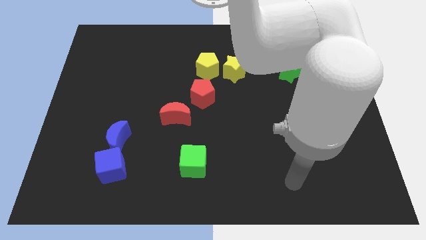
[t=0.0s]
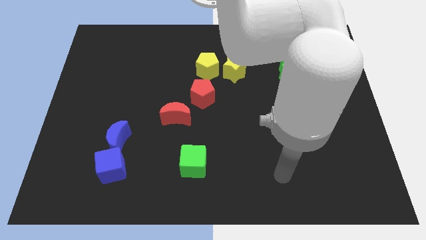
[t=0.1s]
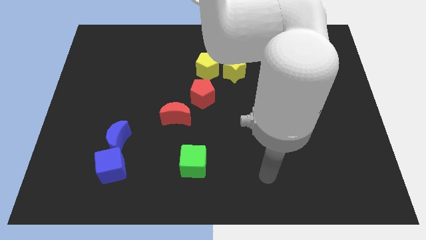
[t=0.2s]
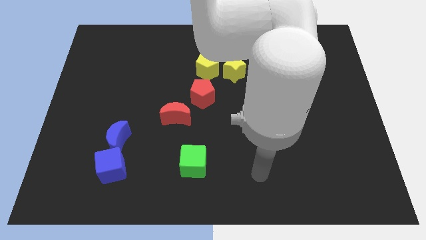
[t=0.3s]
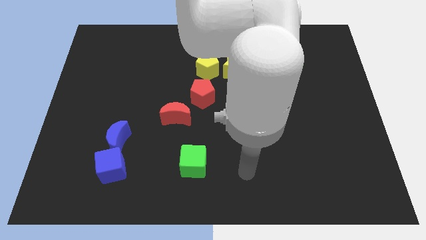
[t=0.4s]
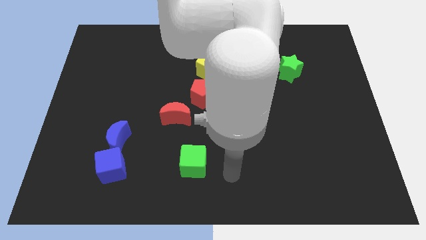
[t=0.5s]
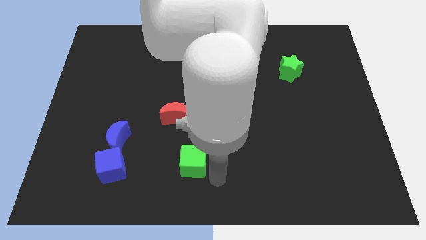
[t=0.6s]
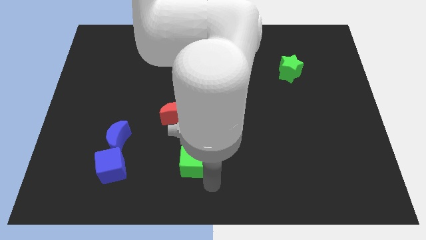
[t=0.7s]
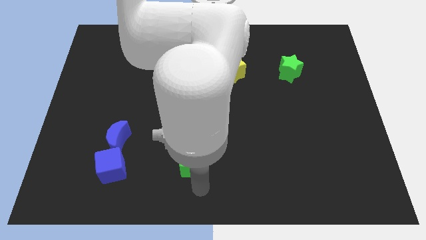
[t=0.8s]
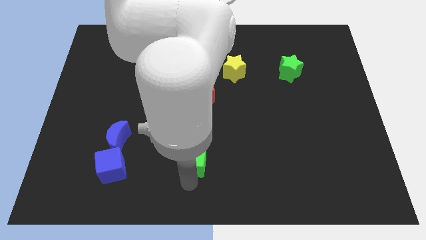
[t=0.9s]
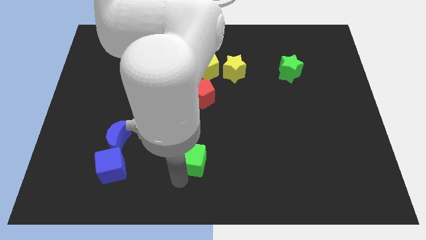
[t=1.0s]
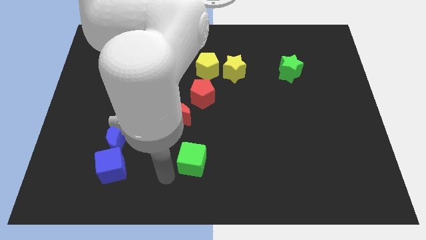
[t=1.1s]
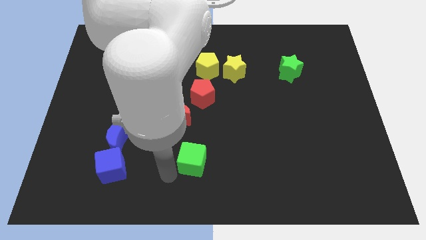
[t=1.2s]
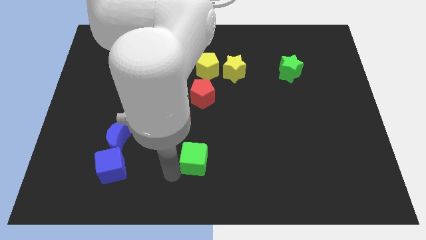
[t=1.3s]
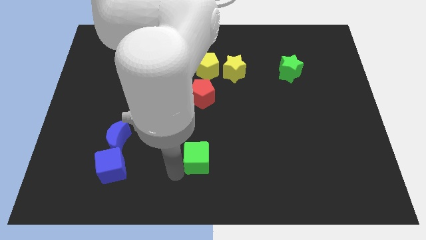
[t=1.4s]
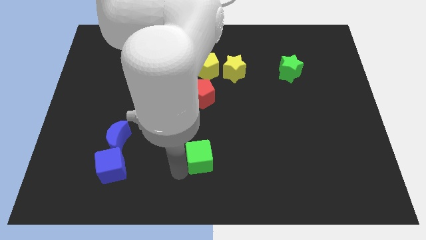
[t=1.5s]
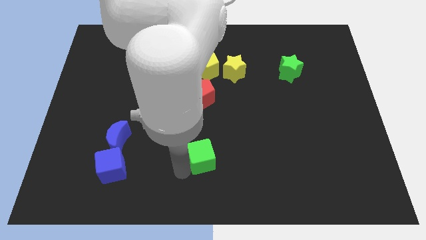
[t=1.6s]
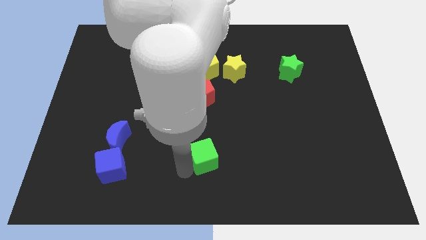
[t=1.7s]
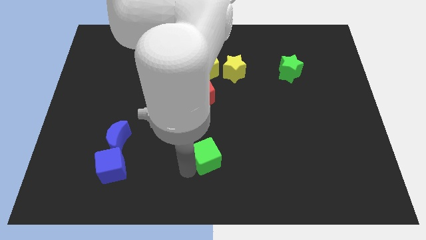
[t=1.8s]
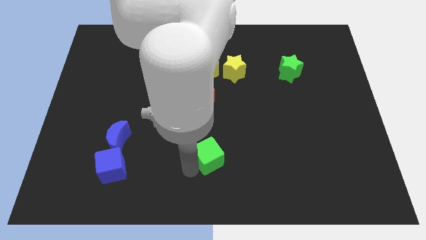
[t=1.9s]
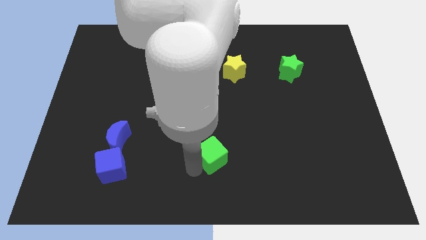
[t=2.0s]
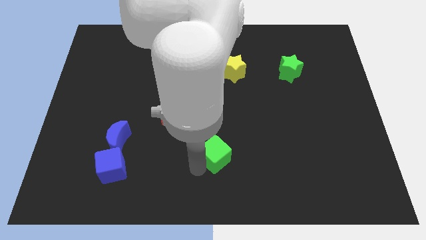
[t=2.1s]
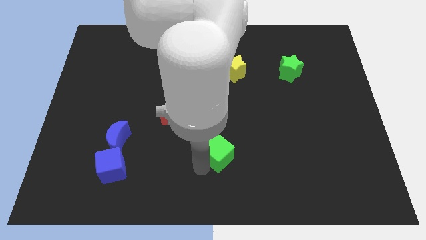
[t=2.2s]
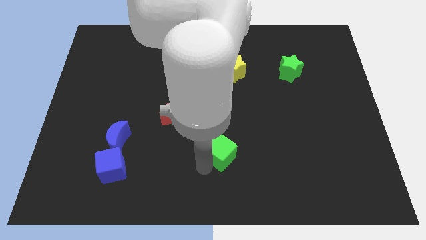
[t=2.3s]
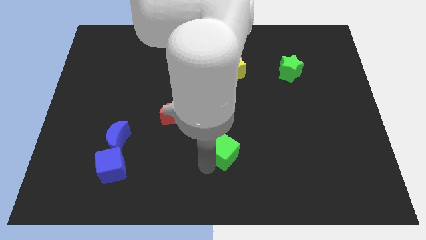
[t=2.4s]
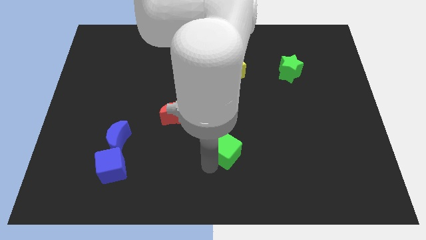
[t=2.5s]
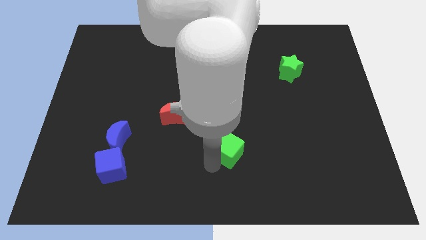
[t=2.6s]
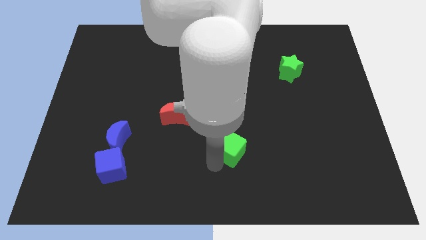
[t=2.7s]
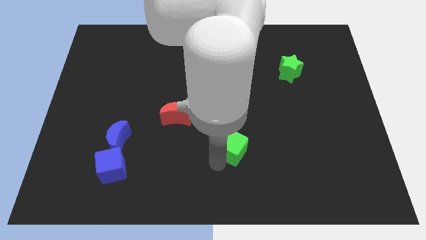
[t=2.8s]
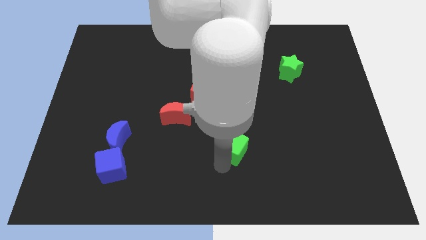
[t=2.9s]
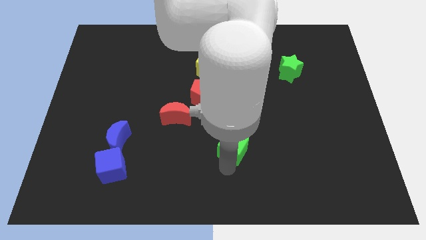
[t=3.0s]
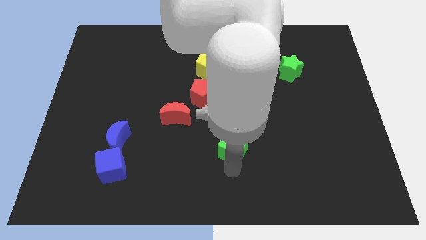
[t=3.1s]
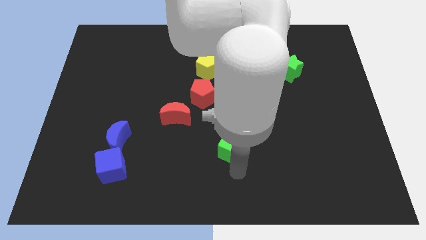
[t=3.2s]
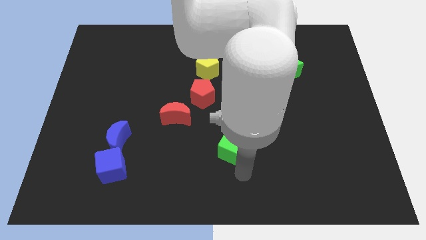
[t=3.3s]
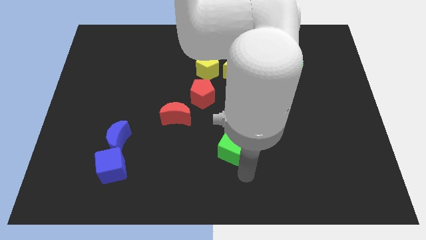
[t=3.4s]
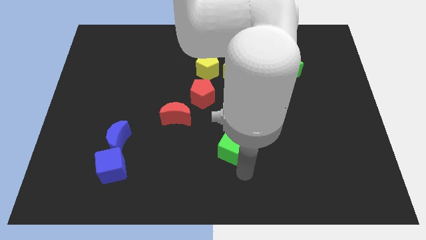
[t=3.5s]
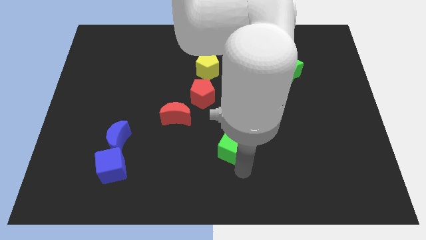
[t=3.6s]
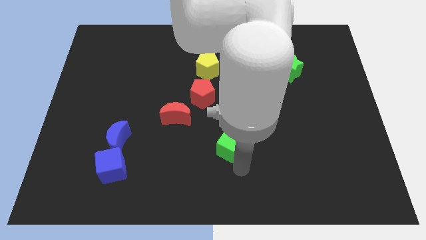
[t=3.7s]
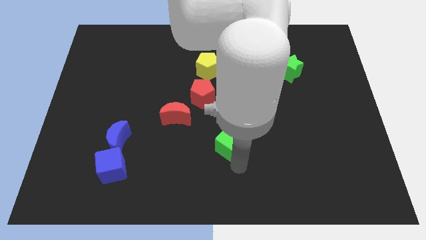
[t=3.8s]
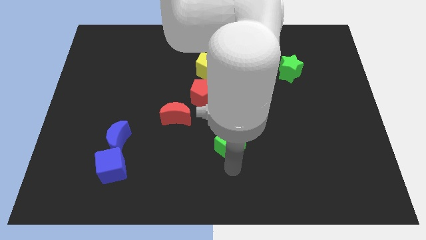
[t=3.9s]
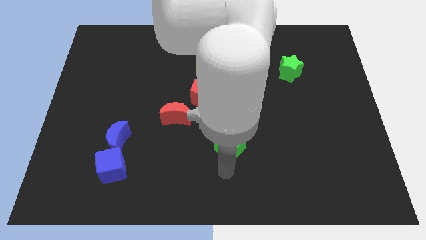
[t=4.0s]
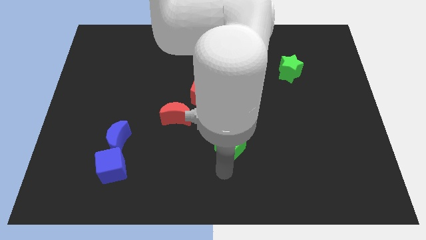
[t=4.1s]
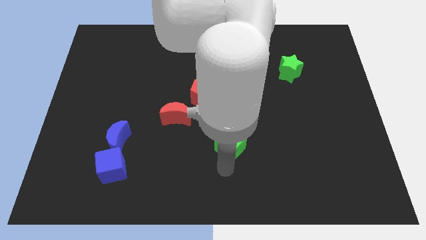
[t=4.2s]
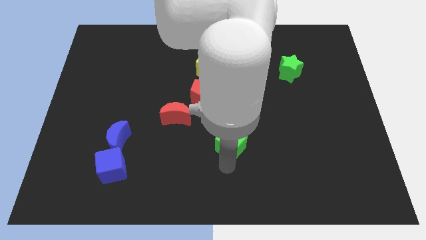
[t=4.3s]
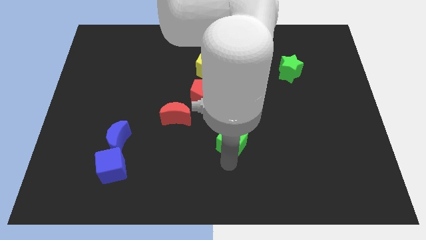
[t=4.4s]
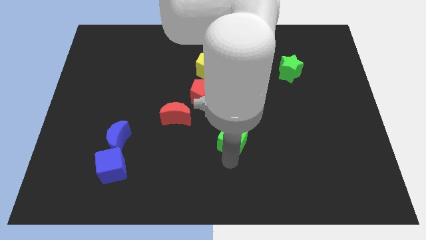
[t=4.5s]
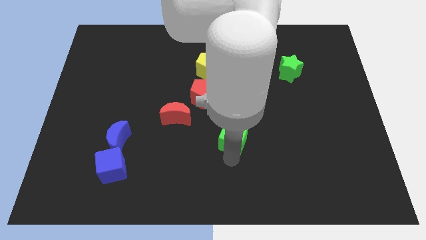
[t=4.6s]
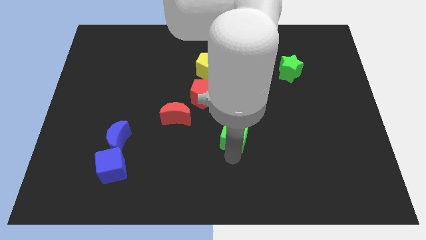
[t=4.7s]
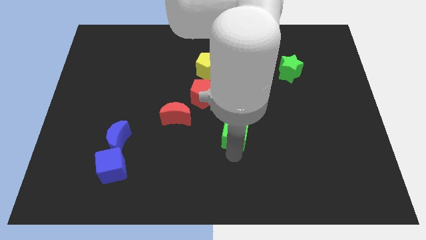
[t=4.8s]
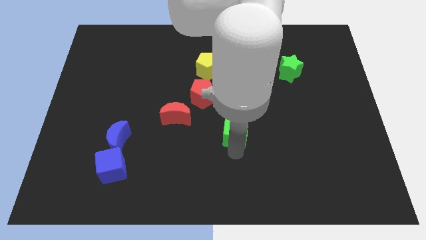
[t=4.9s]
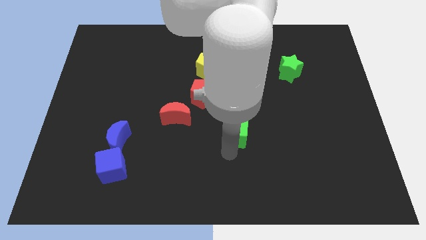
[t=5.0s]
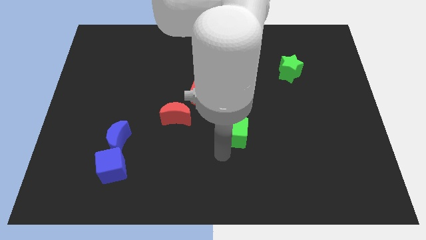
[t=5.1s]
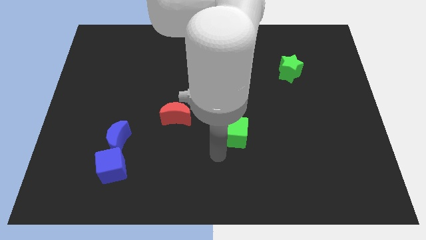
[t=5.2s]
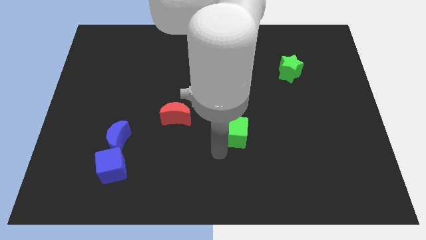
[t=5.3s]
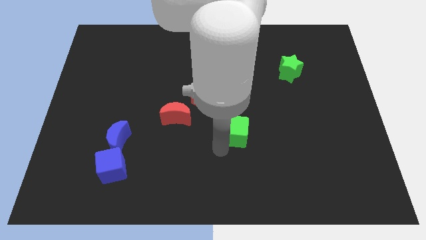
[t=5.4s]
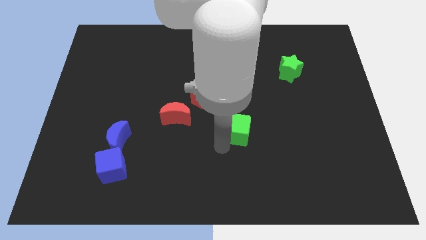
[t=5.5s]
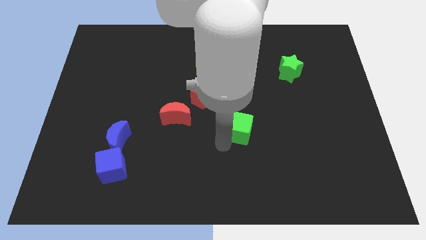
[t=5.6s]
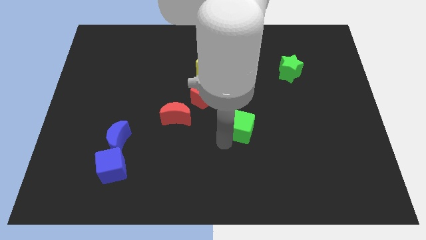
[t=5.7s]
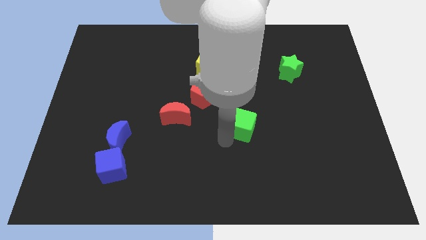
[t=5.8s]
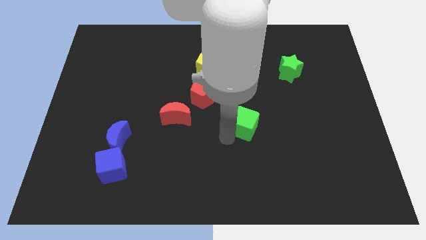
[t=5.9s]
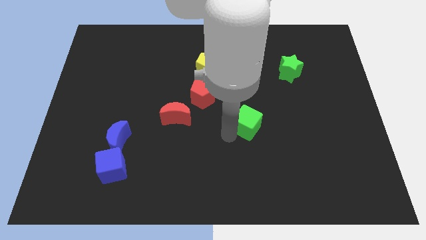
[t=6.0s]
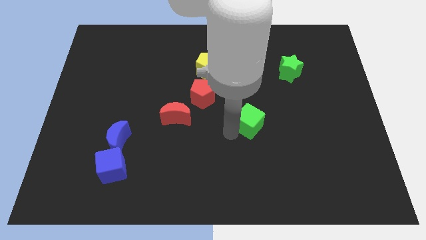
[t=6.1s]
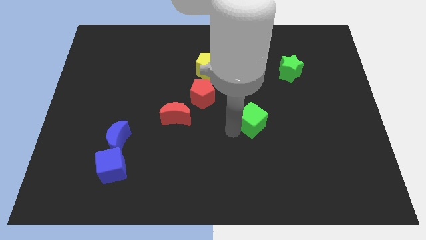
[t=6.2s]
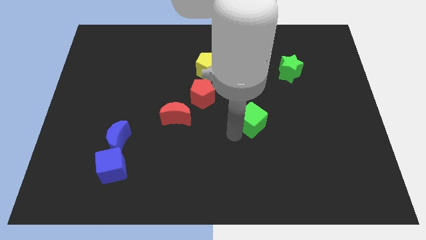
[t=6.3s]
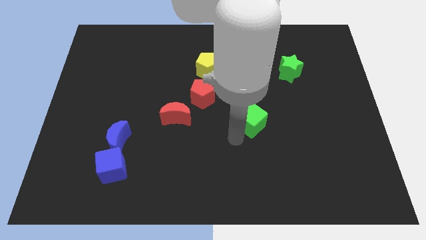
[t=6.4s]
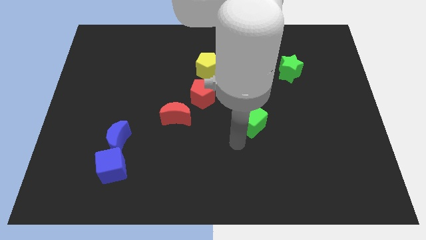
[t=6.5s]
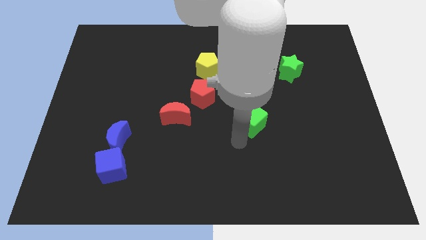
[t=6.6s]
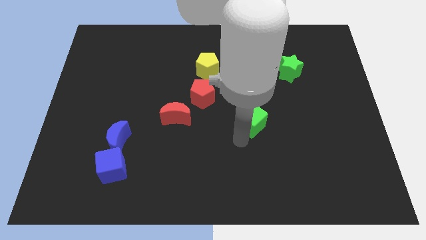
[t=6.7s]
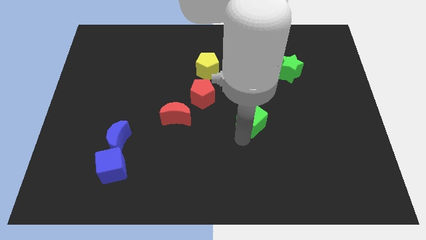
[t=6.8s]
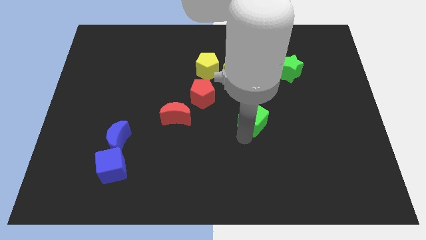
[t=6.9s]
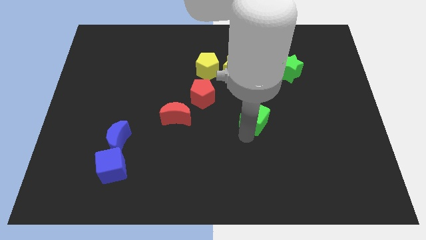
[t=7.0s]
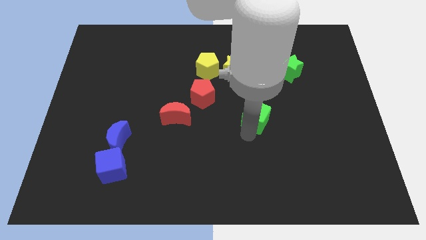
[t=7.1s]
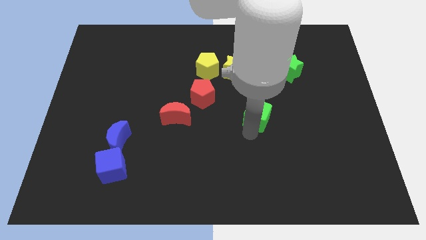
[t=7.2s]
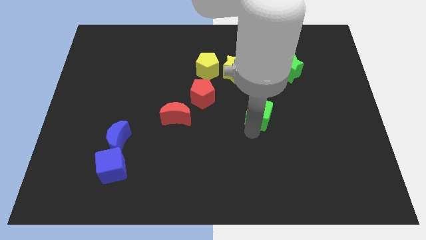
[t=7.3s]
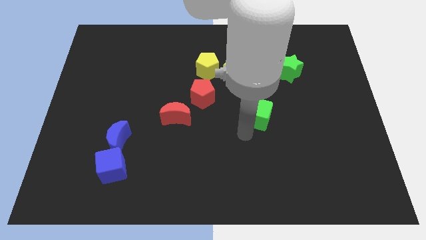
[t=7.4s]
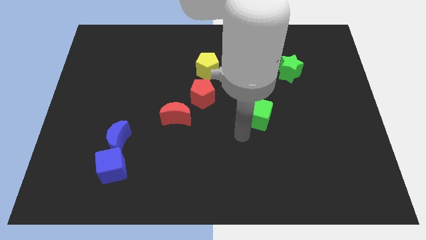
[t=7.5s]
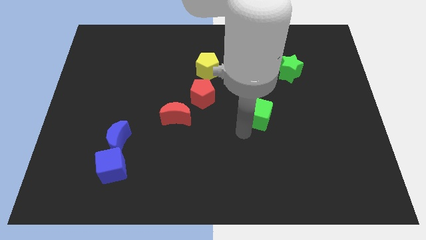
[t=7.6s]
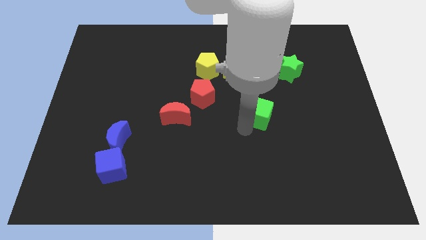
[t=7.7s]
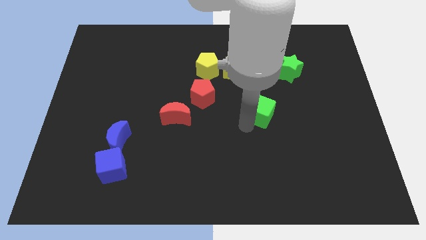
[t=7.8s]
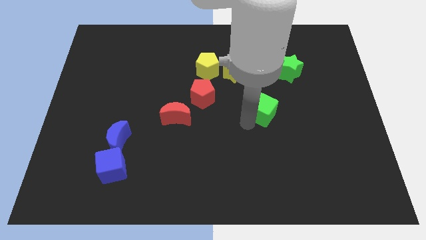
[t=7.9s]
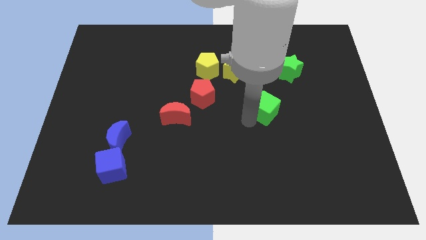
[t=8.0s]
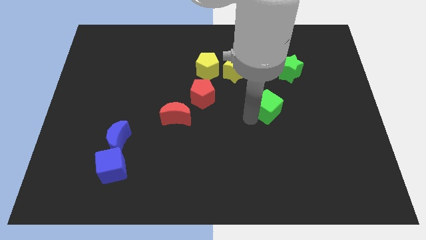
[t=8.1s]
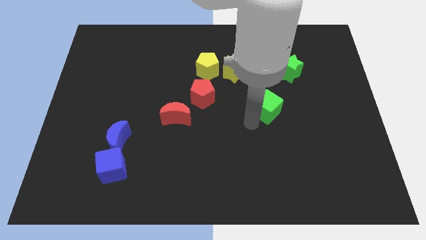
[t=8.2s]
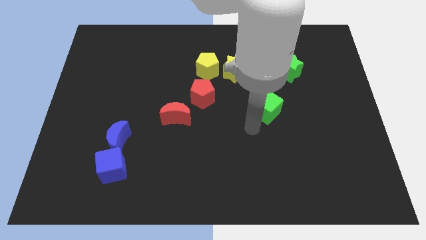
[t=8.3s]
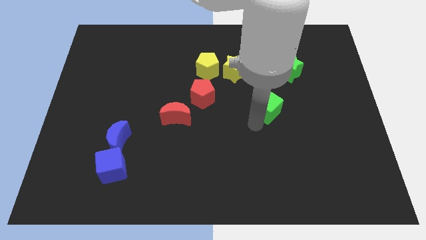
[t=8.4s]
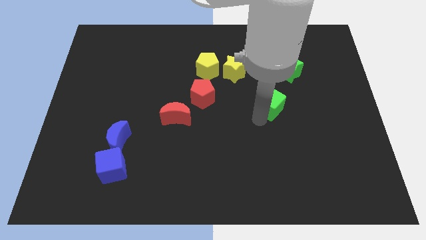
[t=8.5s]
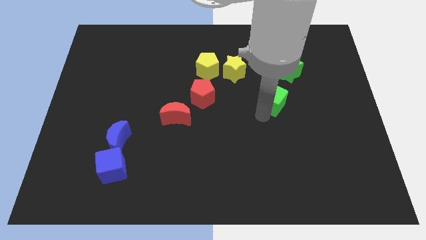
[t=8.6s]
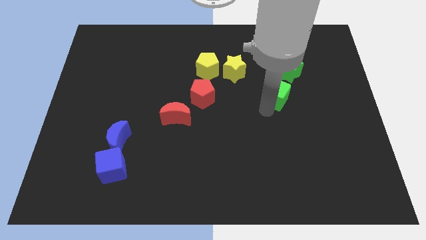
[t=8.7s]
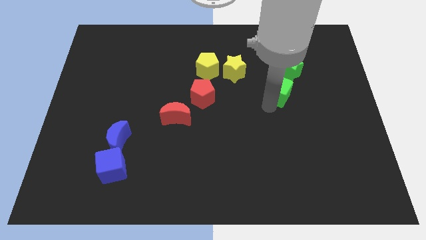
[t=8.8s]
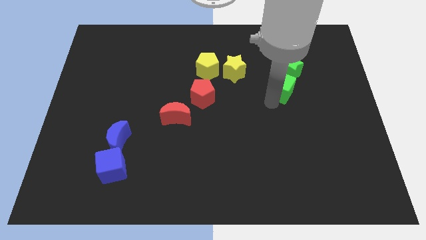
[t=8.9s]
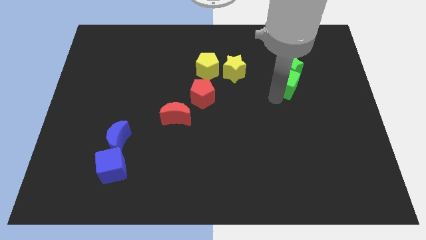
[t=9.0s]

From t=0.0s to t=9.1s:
put the green cube close to the green star
